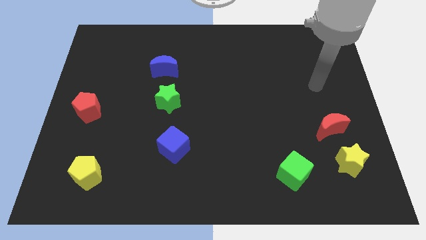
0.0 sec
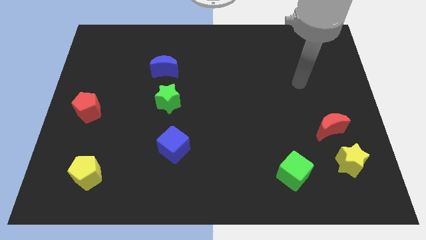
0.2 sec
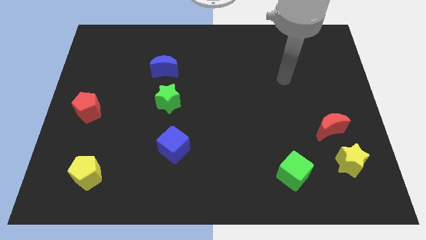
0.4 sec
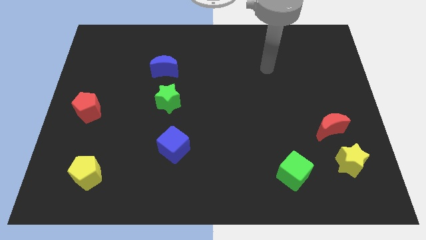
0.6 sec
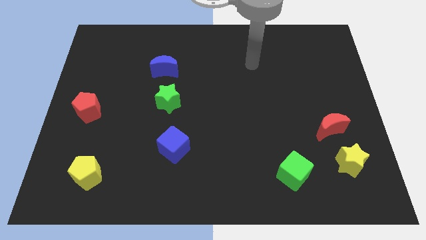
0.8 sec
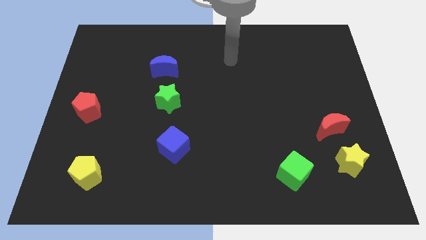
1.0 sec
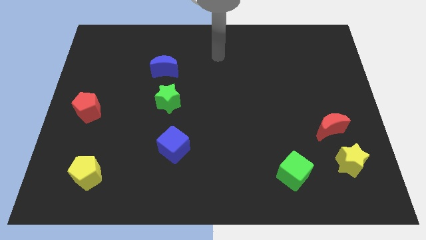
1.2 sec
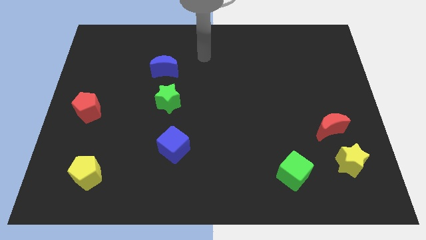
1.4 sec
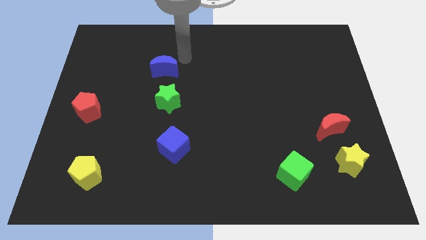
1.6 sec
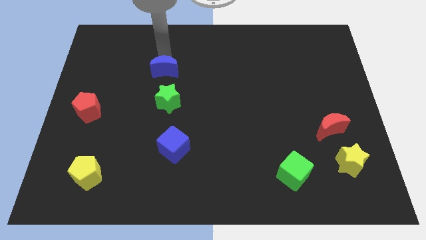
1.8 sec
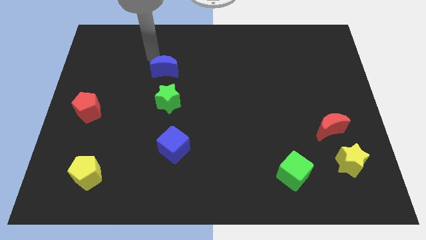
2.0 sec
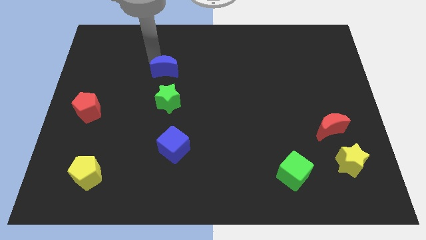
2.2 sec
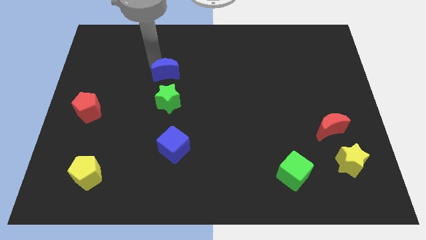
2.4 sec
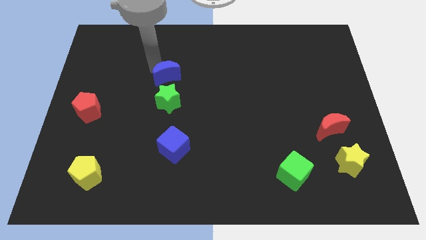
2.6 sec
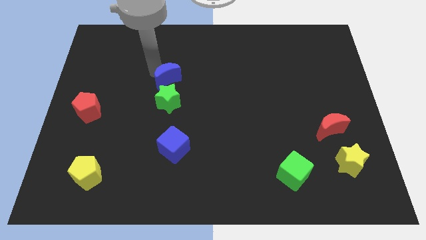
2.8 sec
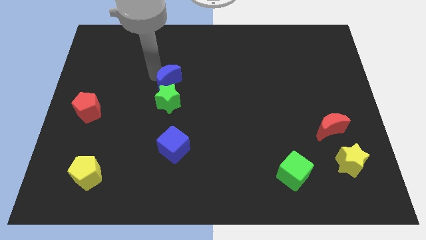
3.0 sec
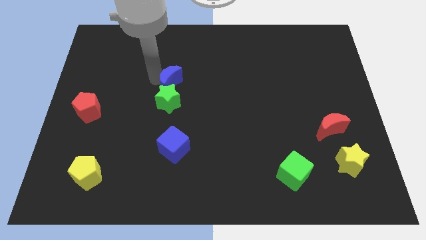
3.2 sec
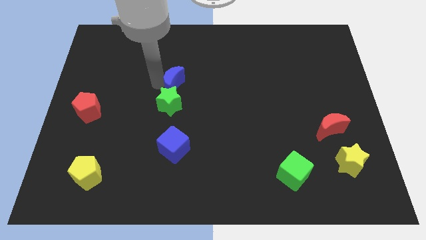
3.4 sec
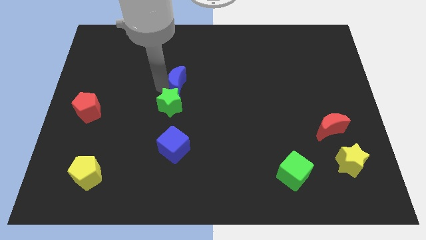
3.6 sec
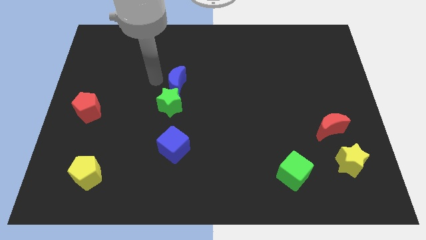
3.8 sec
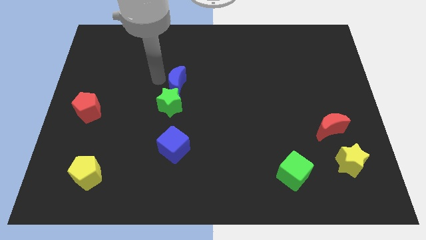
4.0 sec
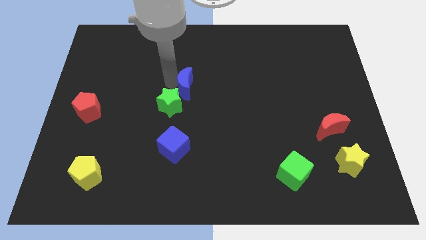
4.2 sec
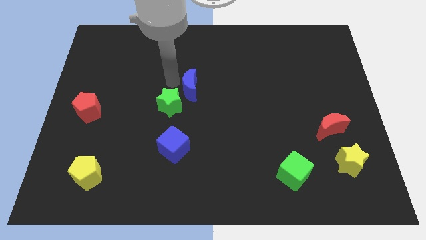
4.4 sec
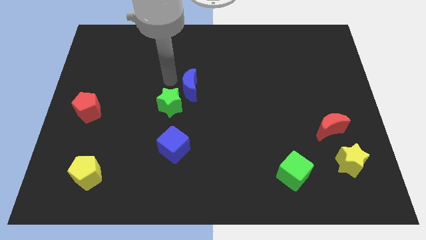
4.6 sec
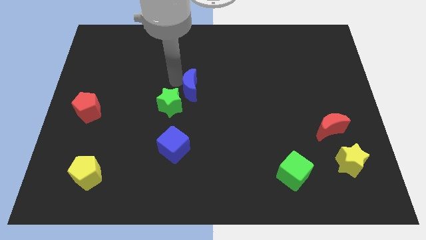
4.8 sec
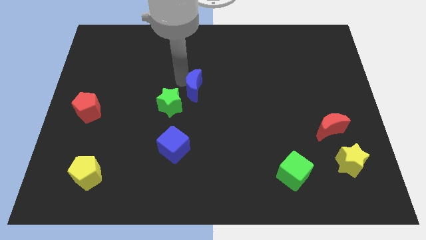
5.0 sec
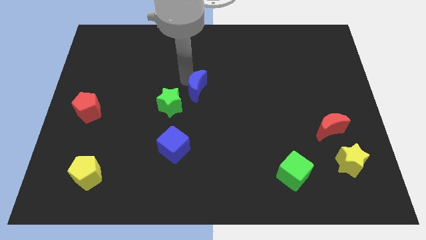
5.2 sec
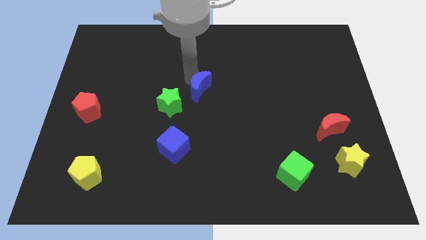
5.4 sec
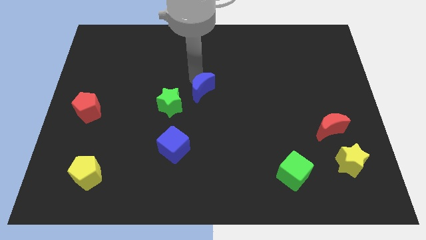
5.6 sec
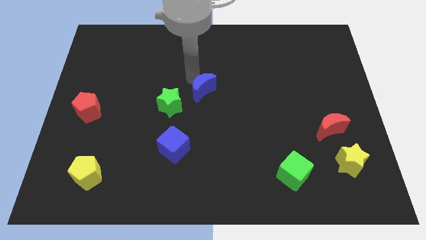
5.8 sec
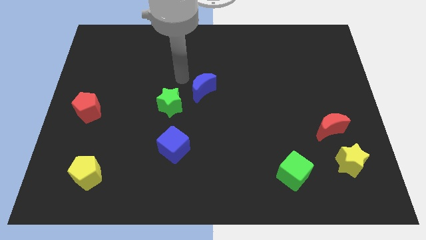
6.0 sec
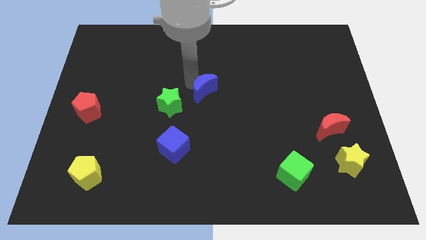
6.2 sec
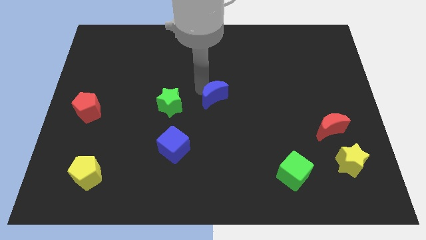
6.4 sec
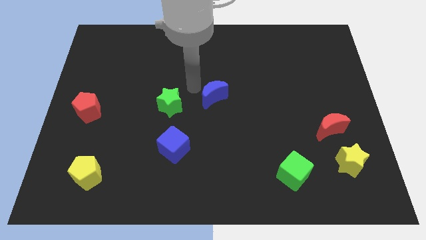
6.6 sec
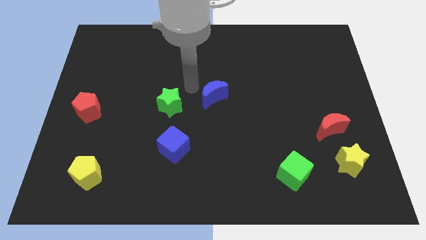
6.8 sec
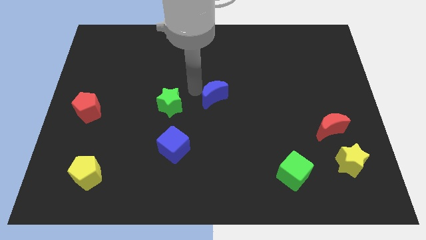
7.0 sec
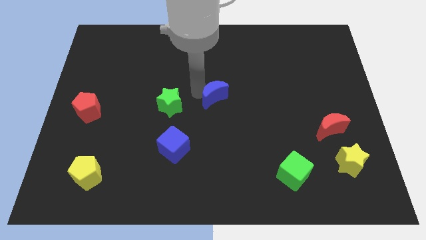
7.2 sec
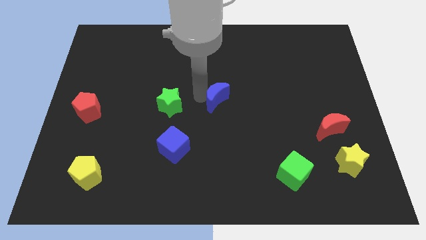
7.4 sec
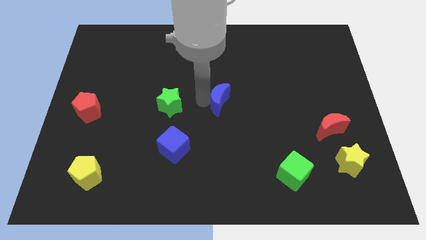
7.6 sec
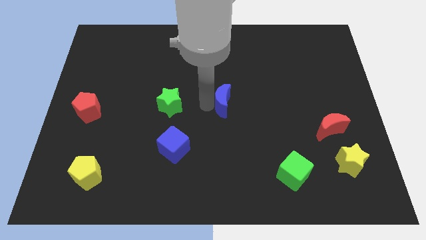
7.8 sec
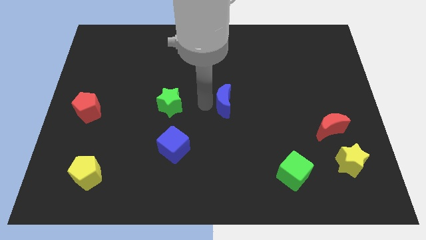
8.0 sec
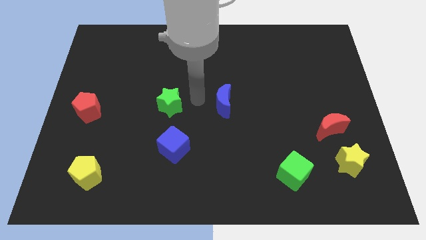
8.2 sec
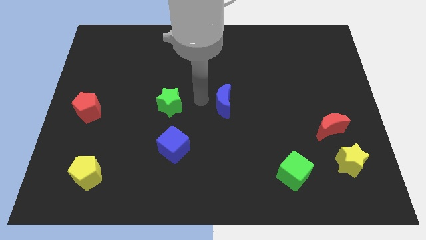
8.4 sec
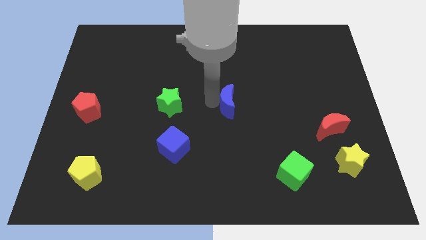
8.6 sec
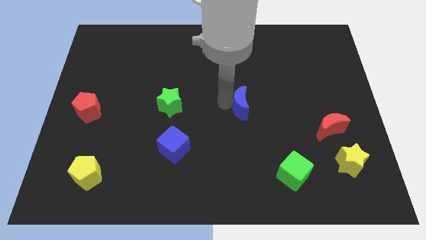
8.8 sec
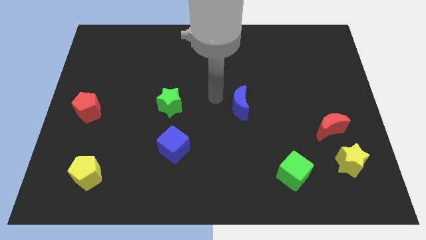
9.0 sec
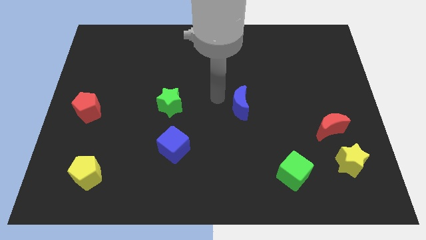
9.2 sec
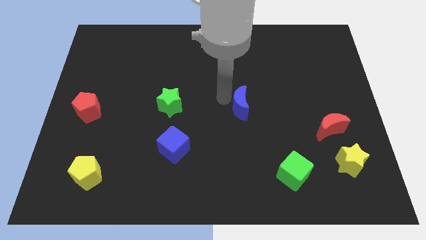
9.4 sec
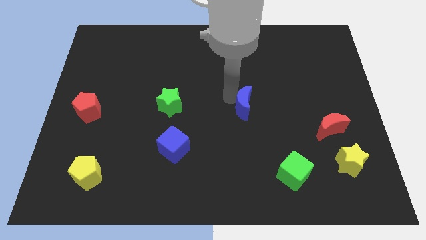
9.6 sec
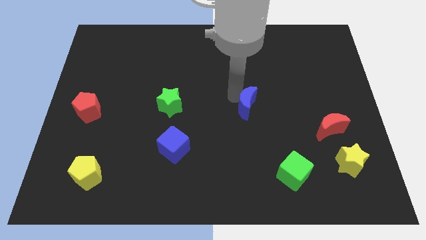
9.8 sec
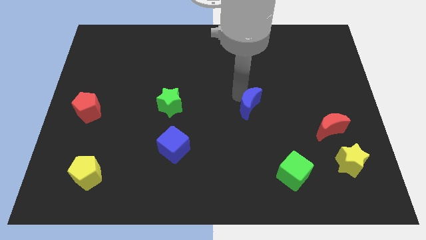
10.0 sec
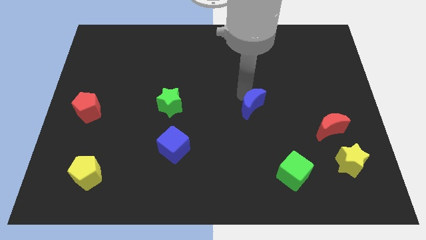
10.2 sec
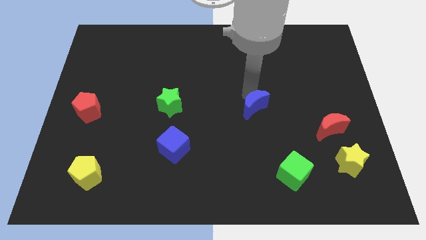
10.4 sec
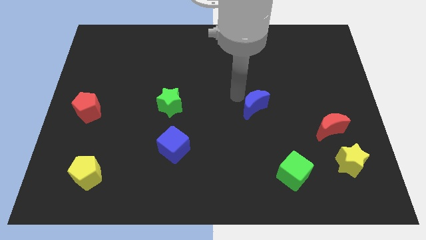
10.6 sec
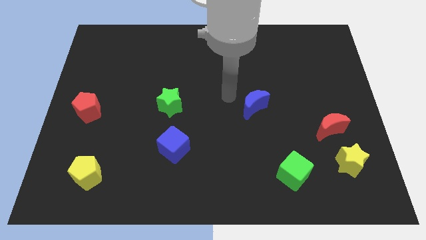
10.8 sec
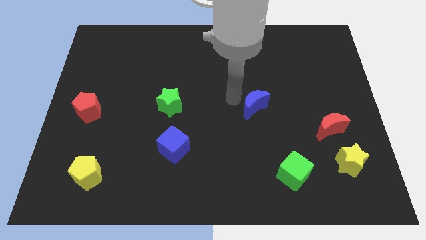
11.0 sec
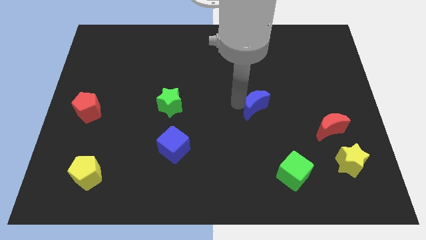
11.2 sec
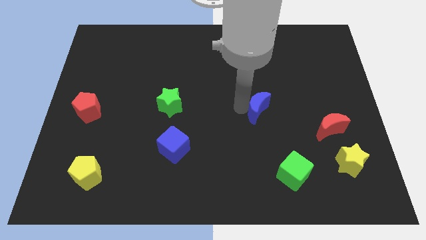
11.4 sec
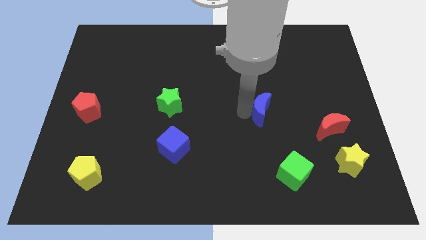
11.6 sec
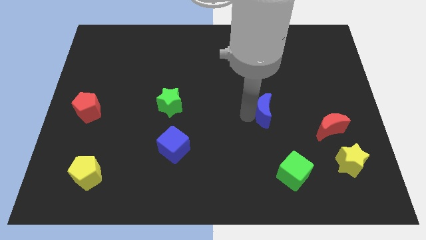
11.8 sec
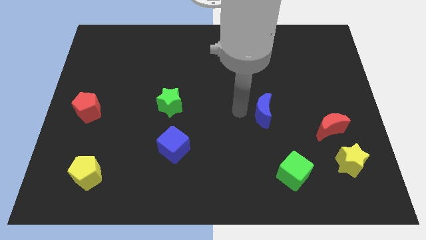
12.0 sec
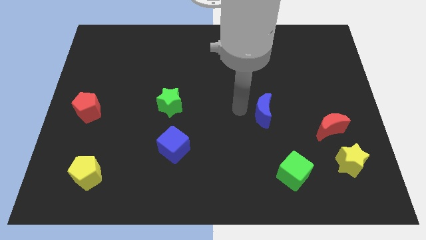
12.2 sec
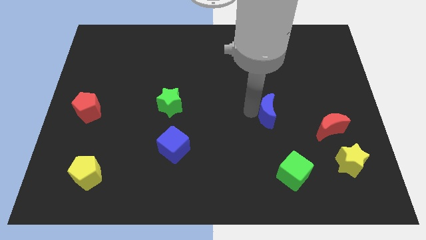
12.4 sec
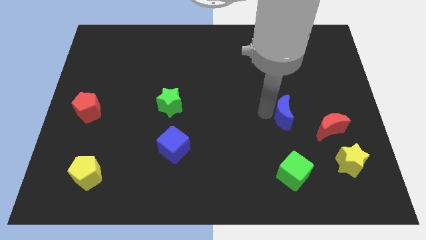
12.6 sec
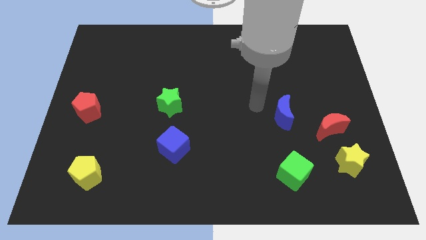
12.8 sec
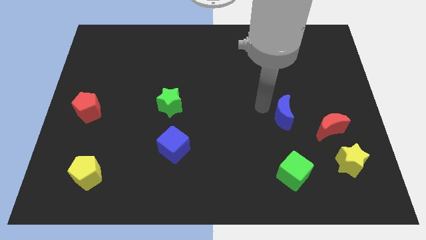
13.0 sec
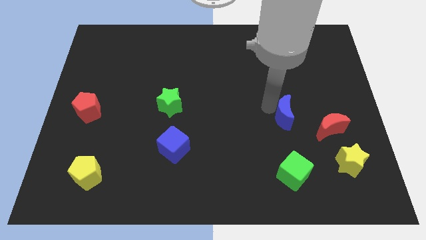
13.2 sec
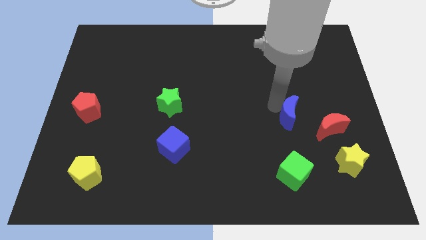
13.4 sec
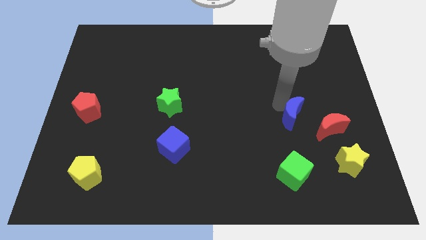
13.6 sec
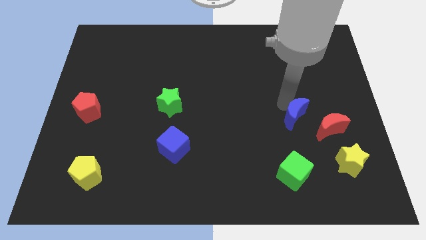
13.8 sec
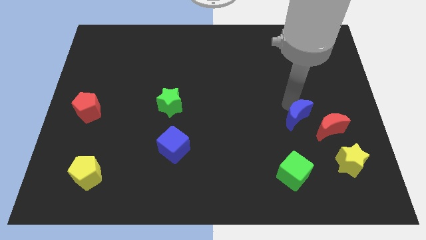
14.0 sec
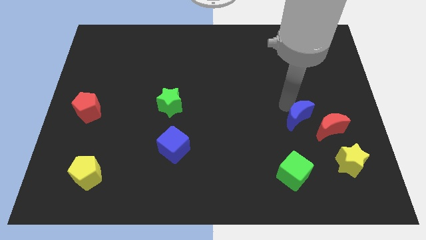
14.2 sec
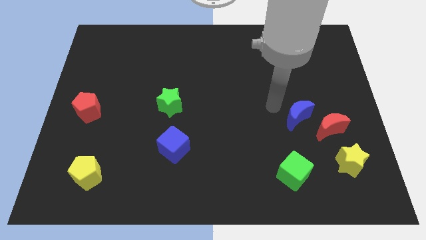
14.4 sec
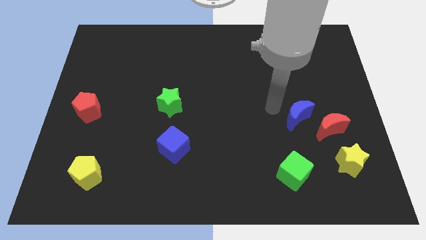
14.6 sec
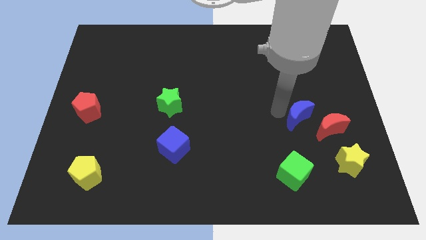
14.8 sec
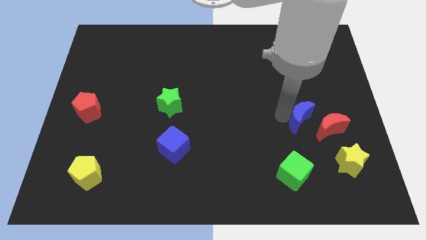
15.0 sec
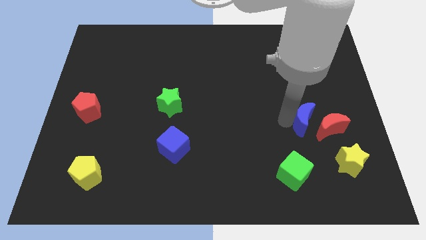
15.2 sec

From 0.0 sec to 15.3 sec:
push the blue moon to the red moon
